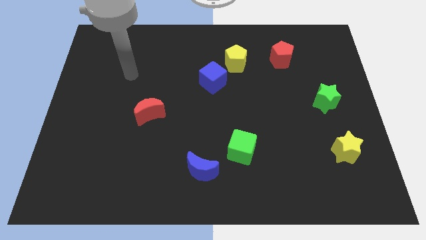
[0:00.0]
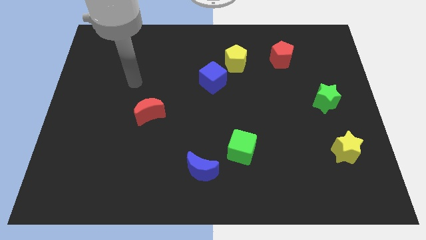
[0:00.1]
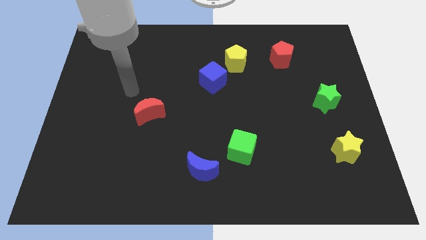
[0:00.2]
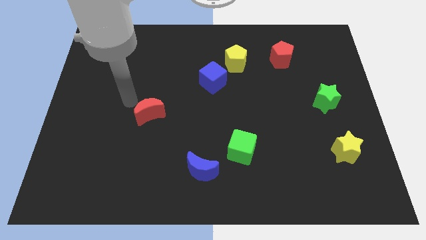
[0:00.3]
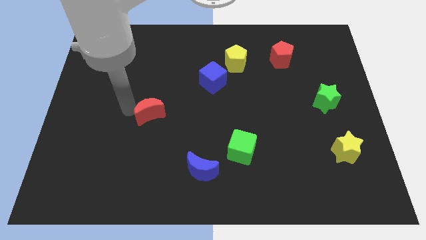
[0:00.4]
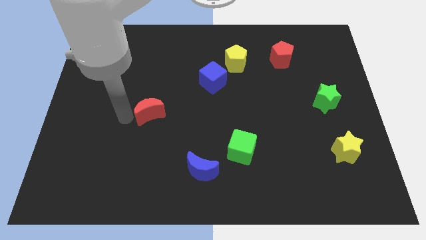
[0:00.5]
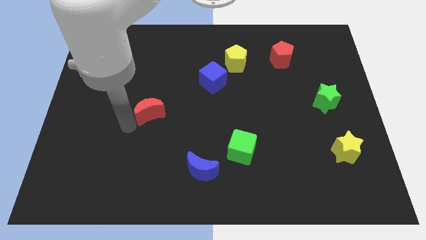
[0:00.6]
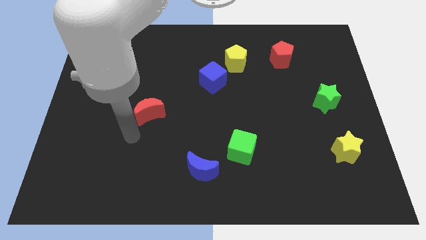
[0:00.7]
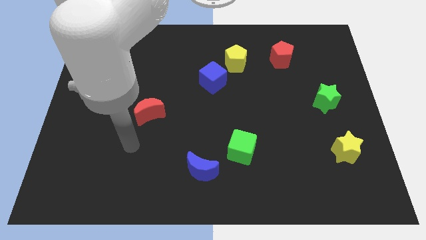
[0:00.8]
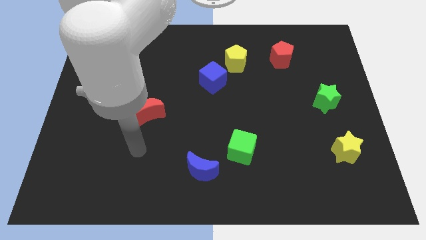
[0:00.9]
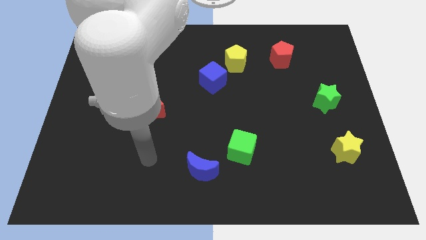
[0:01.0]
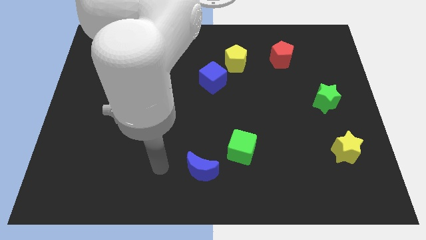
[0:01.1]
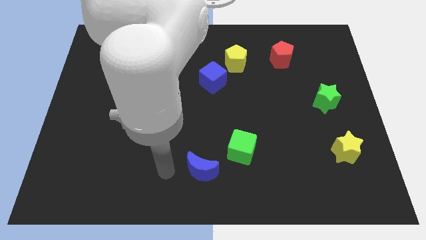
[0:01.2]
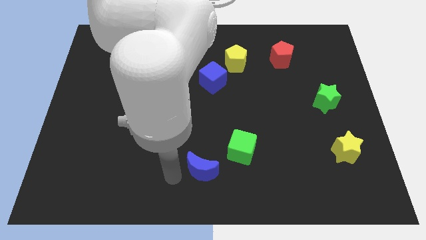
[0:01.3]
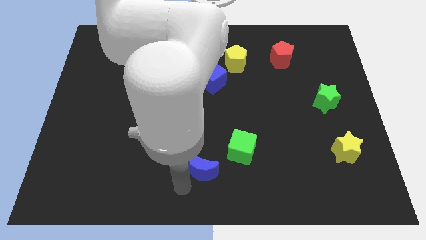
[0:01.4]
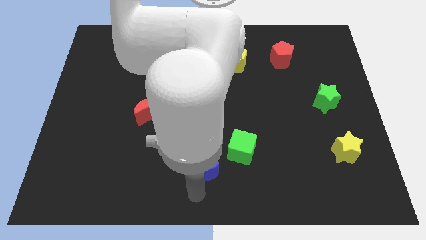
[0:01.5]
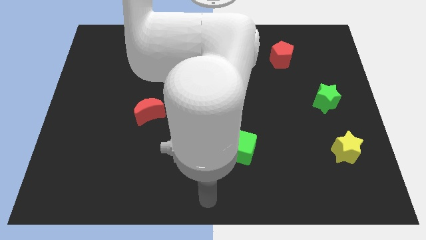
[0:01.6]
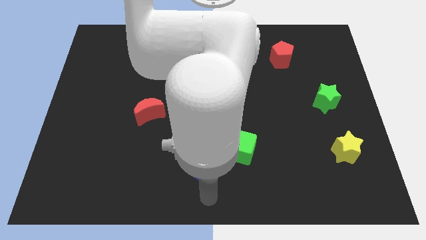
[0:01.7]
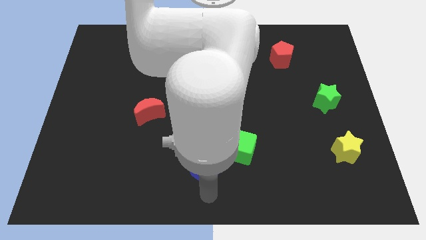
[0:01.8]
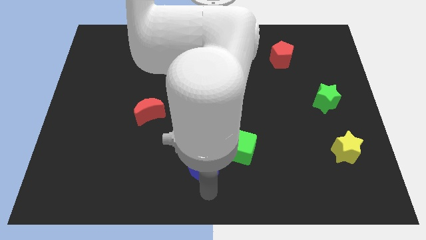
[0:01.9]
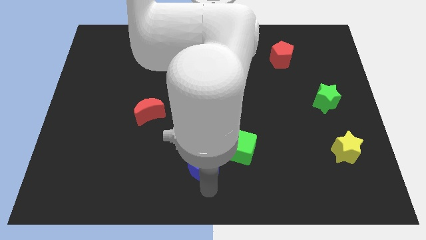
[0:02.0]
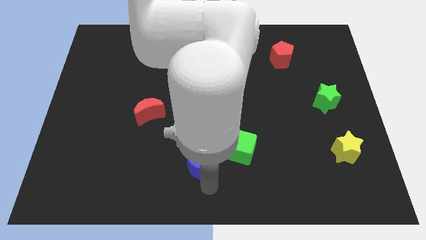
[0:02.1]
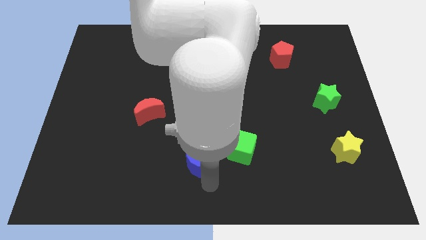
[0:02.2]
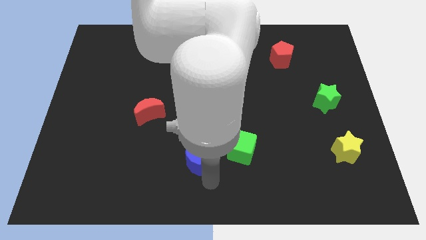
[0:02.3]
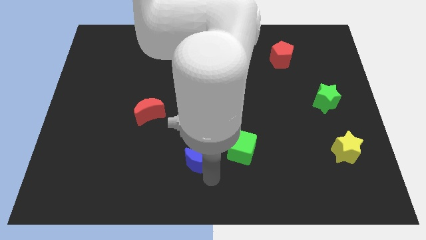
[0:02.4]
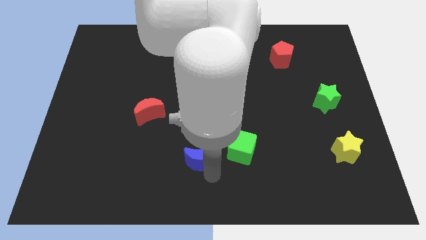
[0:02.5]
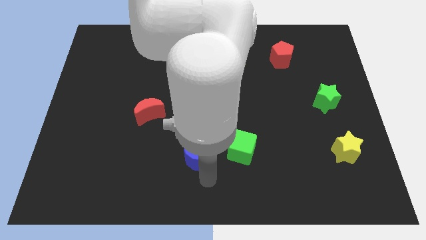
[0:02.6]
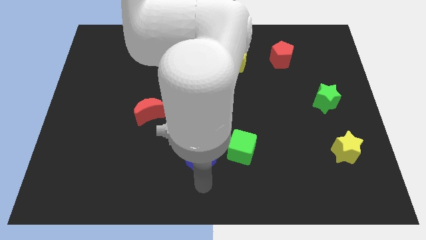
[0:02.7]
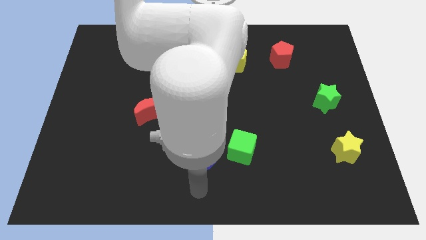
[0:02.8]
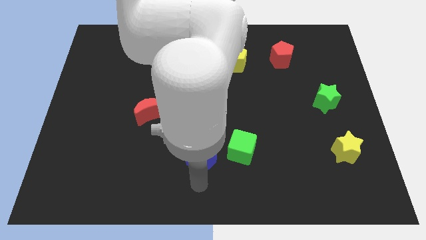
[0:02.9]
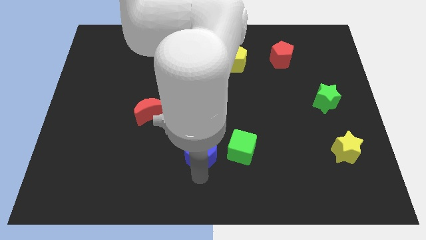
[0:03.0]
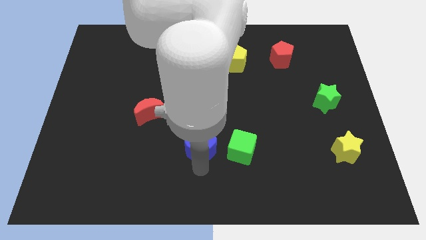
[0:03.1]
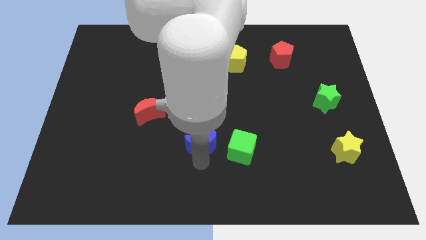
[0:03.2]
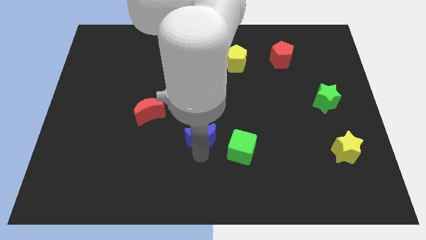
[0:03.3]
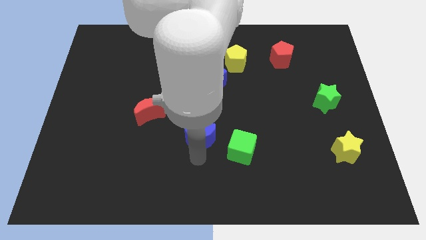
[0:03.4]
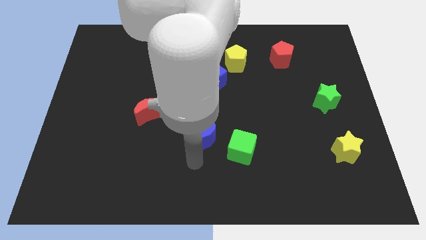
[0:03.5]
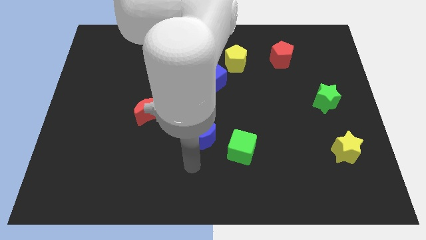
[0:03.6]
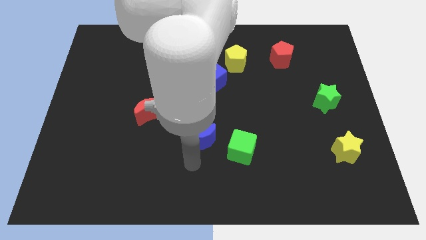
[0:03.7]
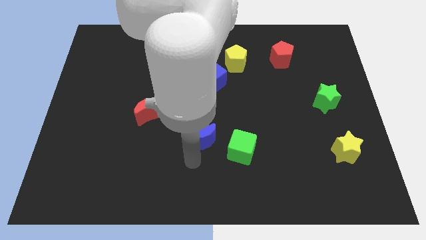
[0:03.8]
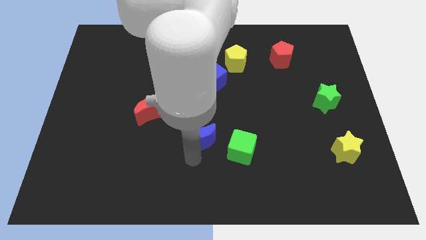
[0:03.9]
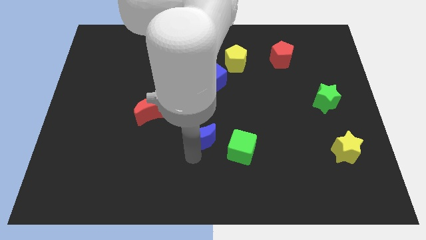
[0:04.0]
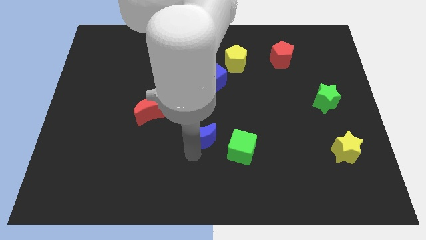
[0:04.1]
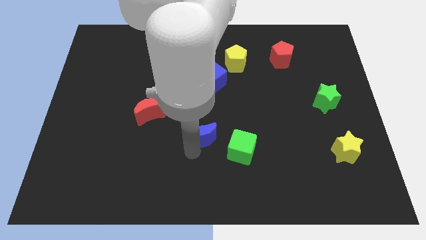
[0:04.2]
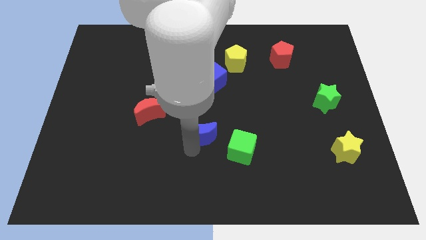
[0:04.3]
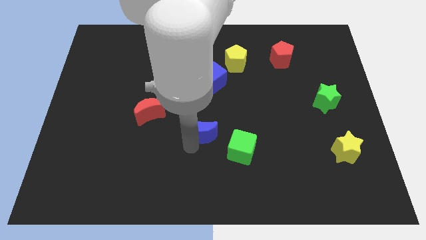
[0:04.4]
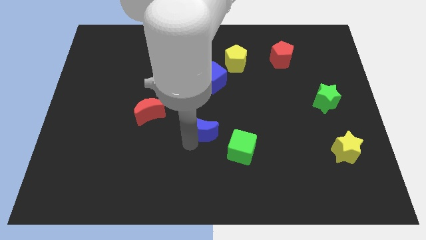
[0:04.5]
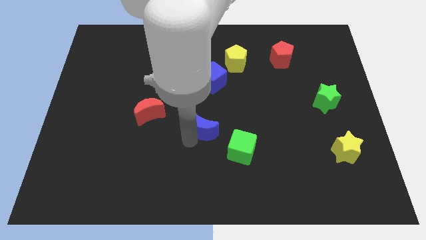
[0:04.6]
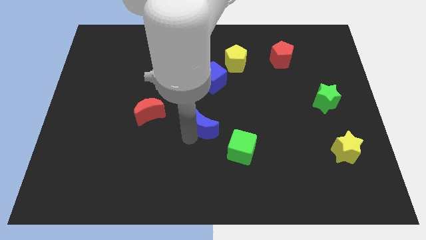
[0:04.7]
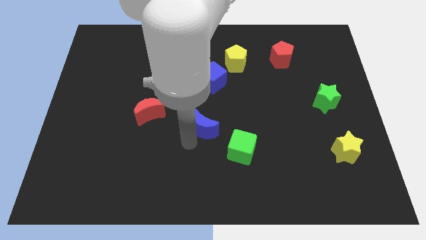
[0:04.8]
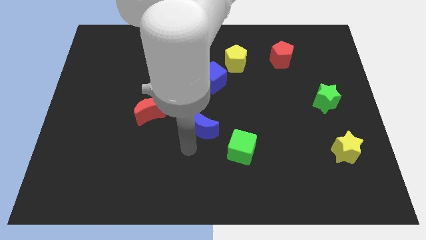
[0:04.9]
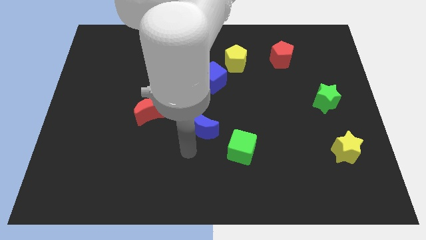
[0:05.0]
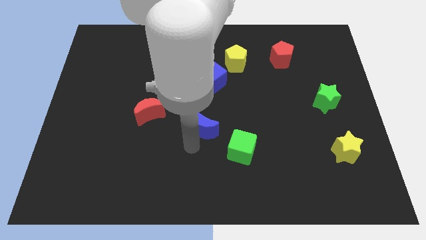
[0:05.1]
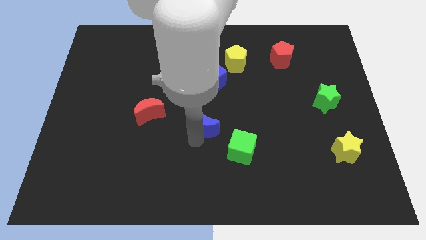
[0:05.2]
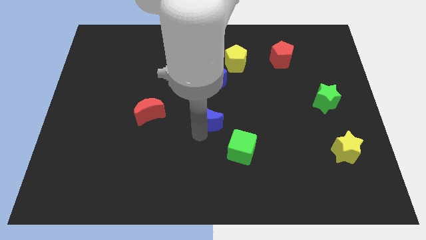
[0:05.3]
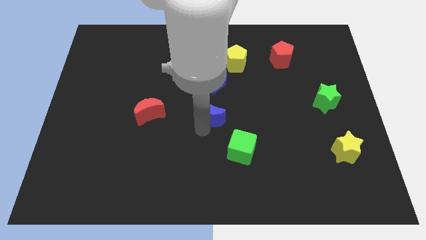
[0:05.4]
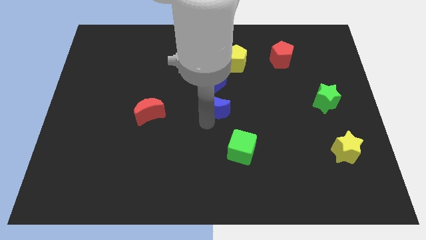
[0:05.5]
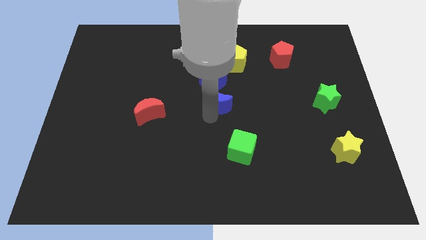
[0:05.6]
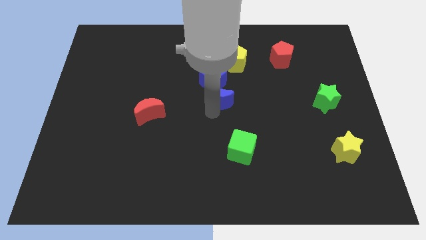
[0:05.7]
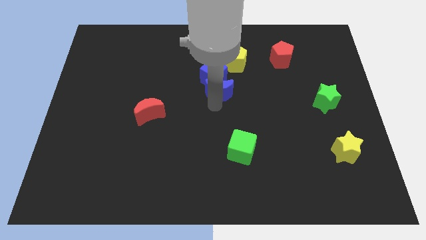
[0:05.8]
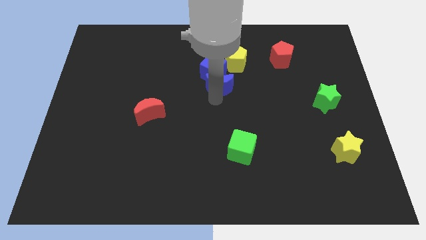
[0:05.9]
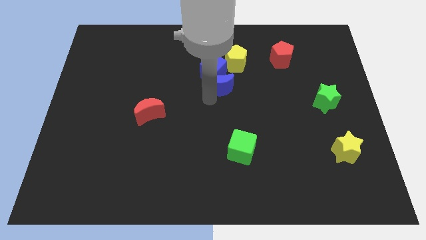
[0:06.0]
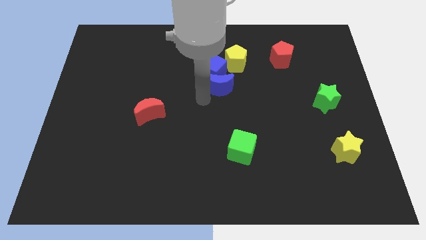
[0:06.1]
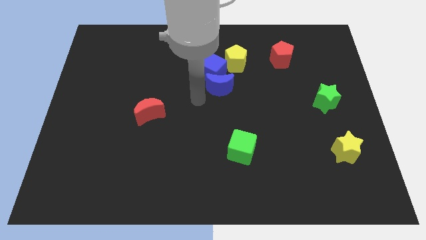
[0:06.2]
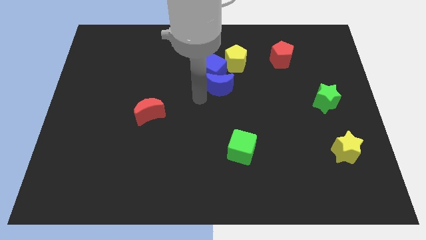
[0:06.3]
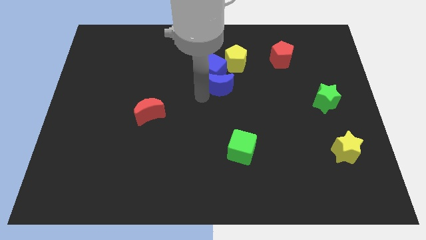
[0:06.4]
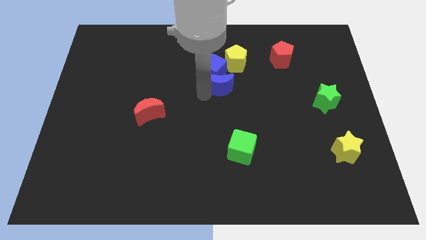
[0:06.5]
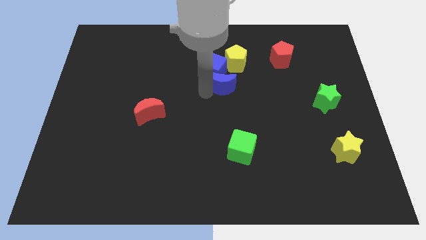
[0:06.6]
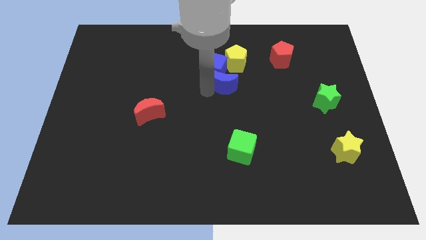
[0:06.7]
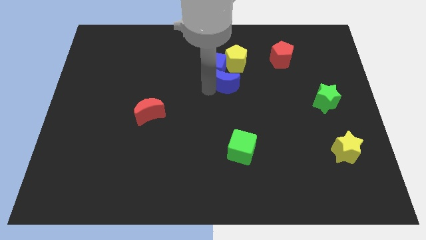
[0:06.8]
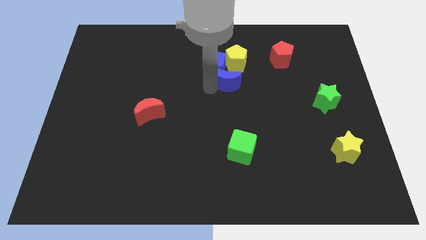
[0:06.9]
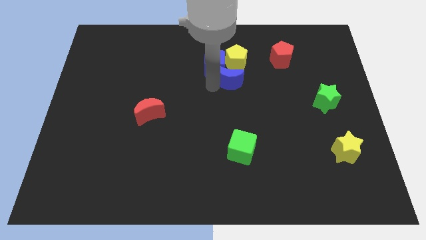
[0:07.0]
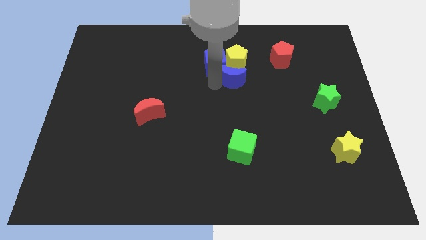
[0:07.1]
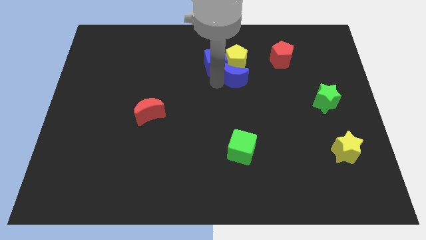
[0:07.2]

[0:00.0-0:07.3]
slide the blue moon close to the yellow pentagon

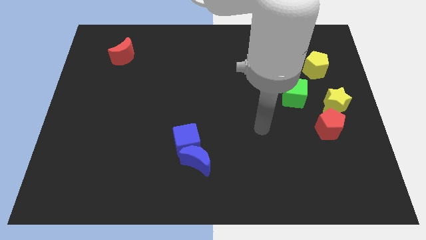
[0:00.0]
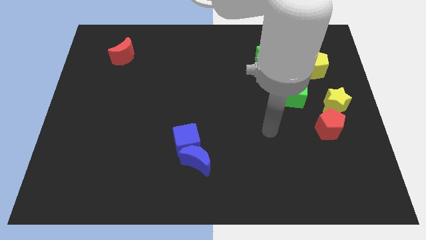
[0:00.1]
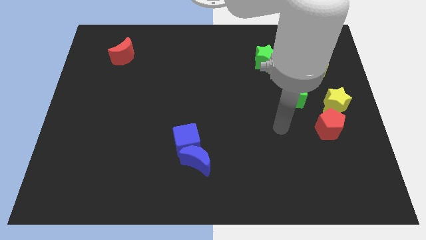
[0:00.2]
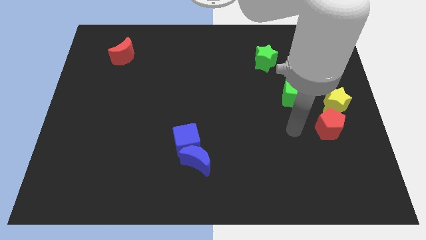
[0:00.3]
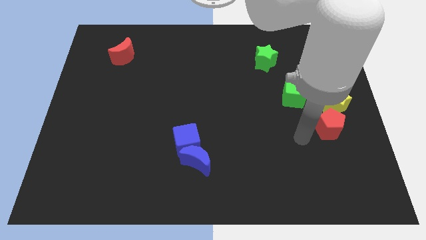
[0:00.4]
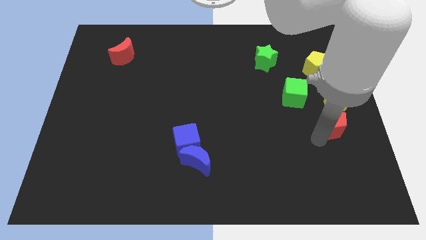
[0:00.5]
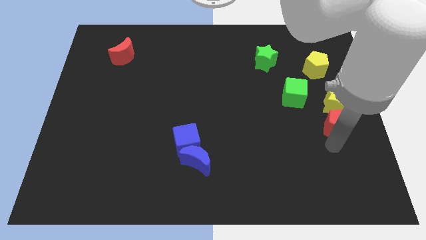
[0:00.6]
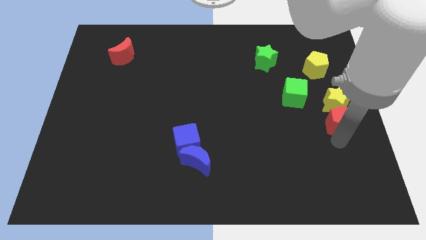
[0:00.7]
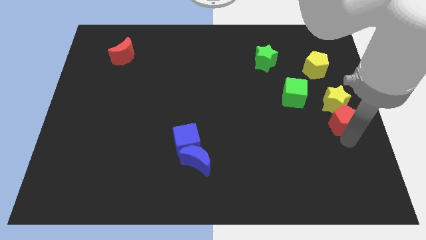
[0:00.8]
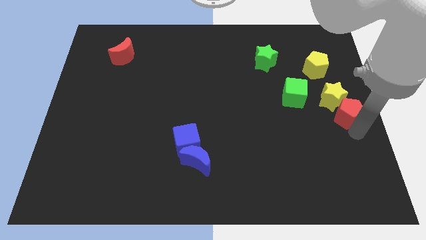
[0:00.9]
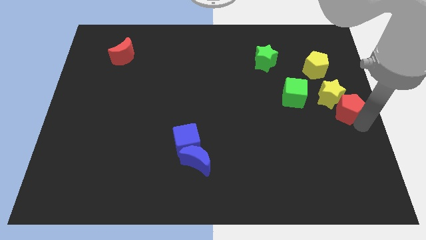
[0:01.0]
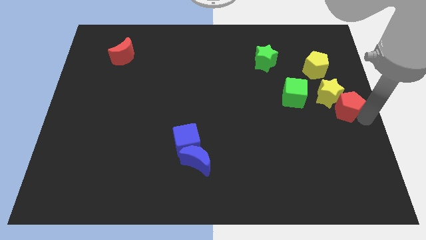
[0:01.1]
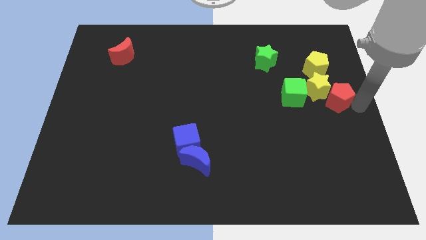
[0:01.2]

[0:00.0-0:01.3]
push the yellow star towards the green cube
